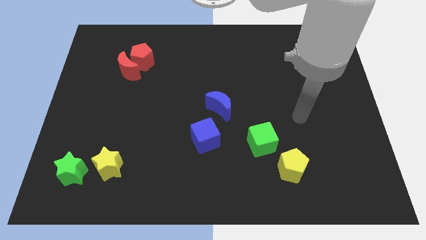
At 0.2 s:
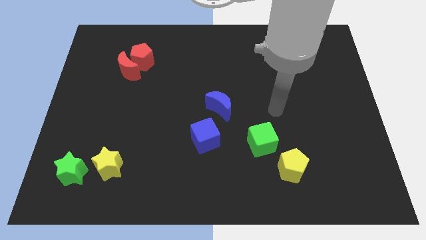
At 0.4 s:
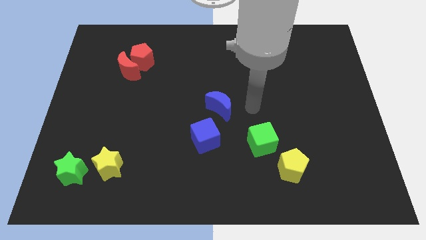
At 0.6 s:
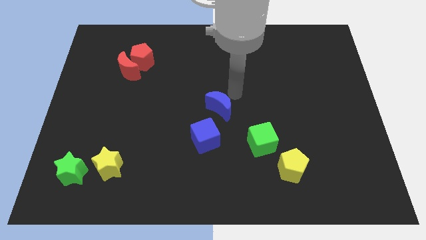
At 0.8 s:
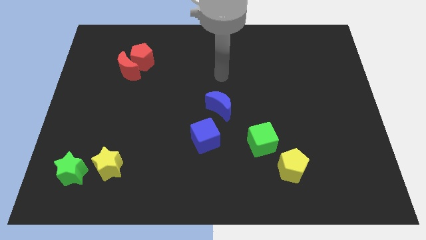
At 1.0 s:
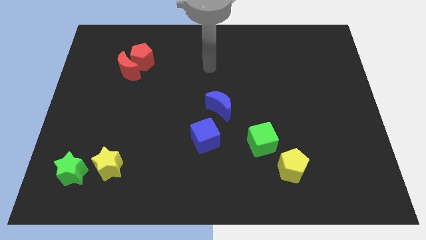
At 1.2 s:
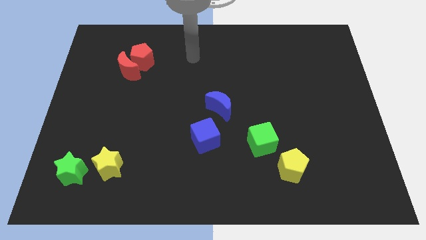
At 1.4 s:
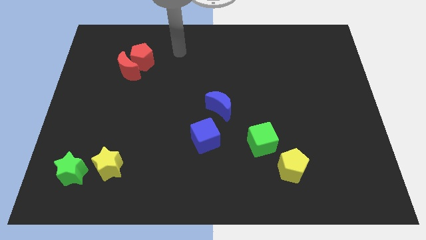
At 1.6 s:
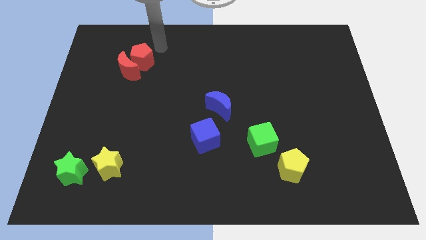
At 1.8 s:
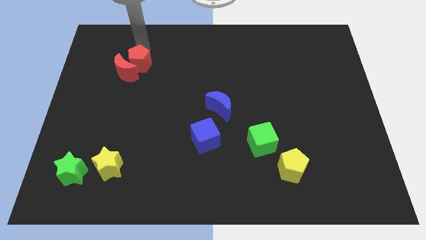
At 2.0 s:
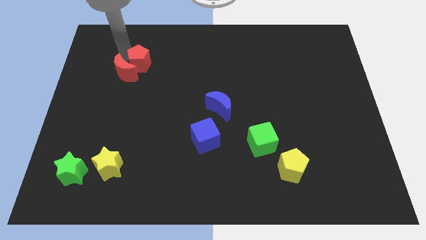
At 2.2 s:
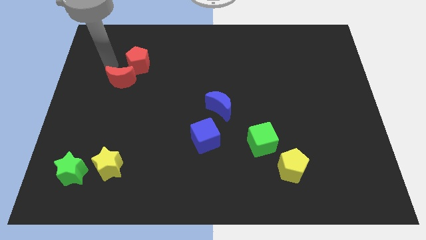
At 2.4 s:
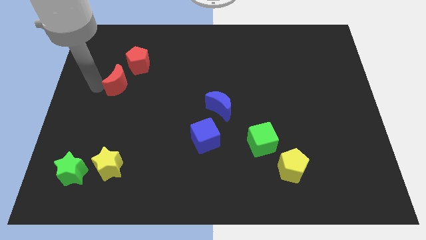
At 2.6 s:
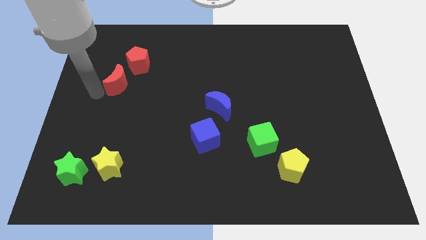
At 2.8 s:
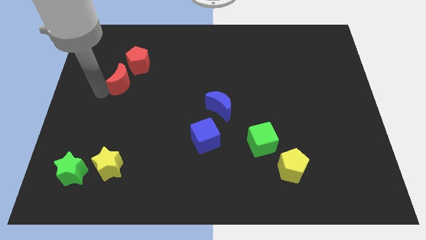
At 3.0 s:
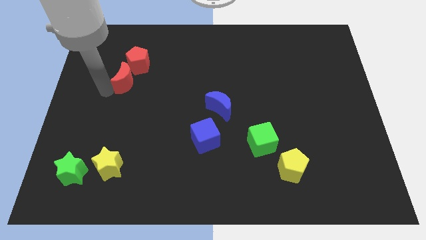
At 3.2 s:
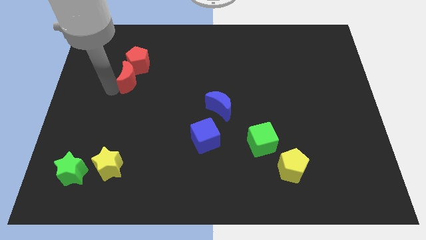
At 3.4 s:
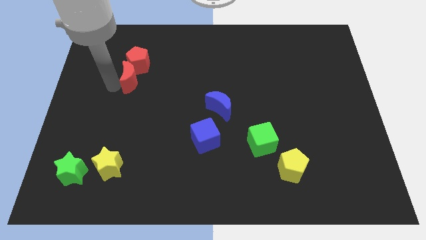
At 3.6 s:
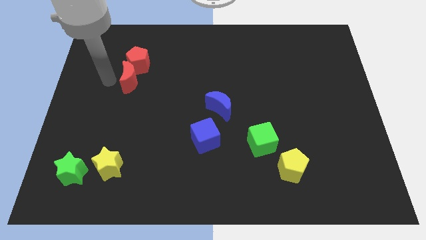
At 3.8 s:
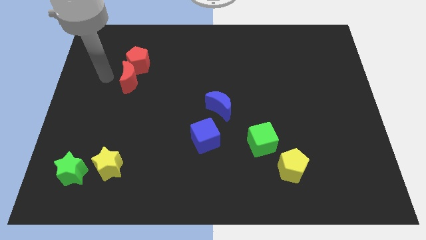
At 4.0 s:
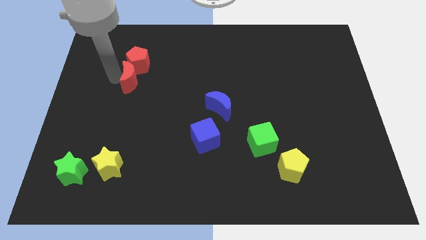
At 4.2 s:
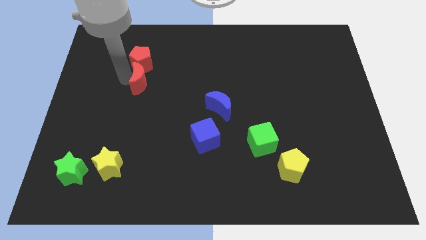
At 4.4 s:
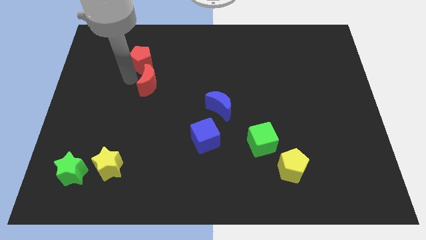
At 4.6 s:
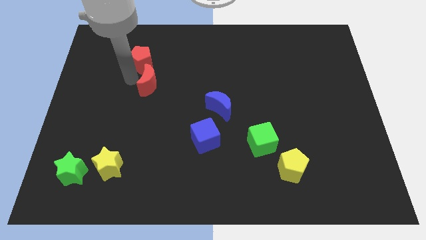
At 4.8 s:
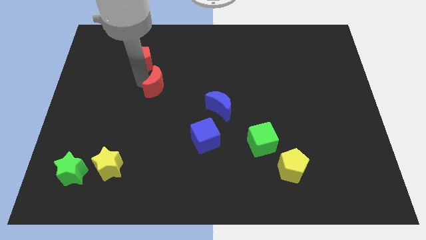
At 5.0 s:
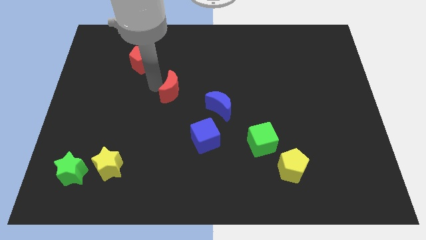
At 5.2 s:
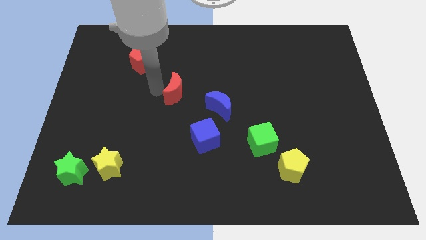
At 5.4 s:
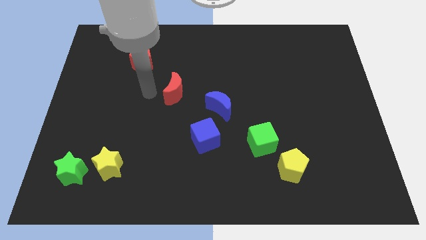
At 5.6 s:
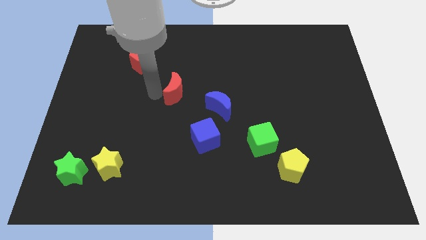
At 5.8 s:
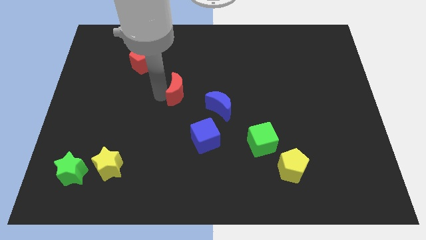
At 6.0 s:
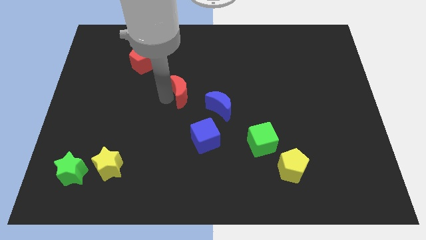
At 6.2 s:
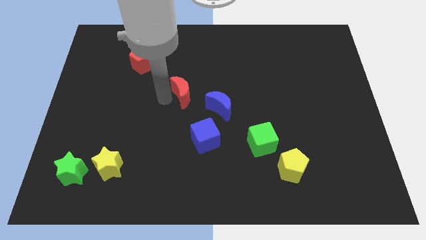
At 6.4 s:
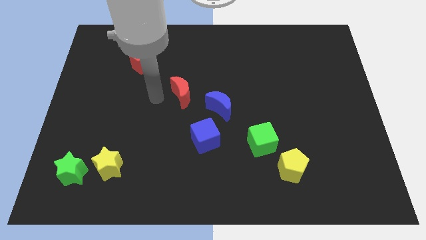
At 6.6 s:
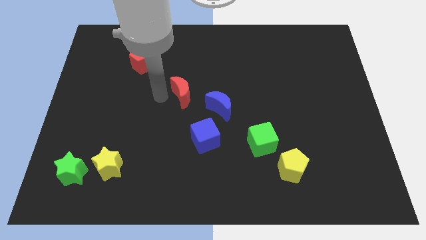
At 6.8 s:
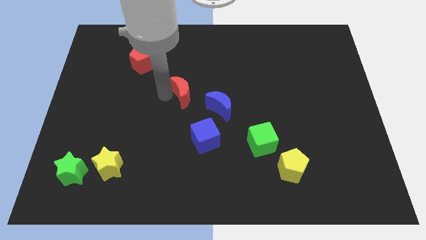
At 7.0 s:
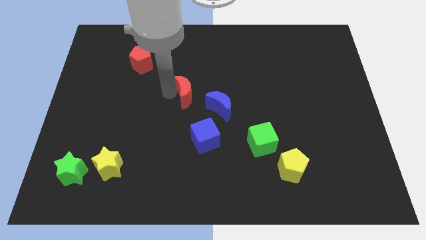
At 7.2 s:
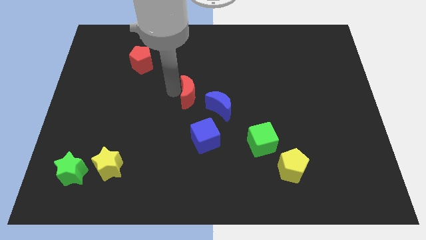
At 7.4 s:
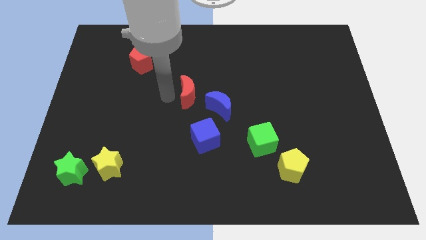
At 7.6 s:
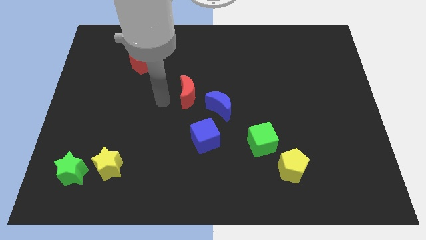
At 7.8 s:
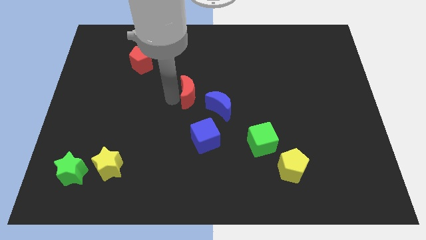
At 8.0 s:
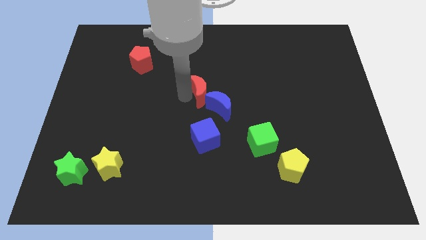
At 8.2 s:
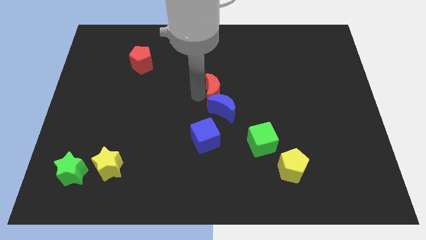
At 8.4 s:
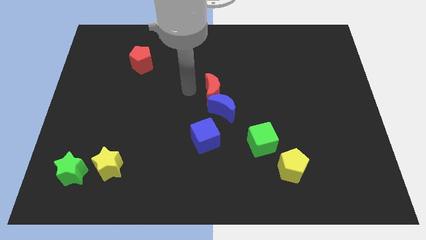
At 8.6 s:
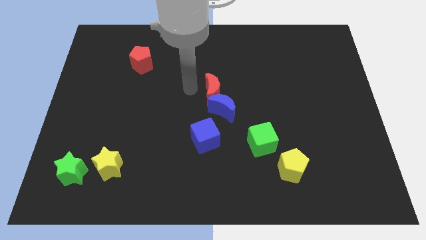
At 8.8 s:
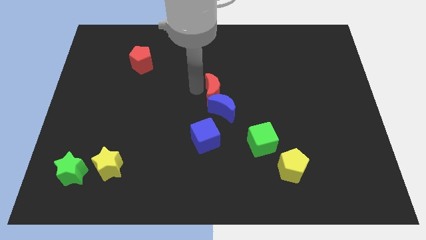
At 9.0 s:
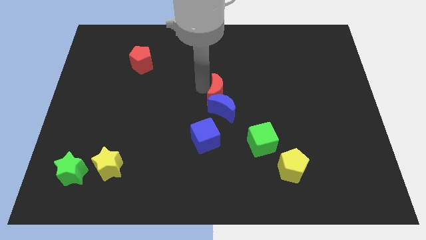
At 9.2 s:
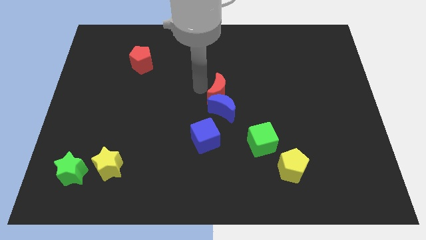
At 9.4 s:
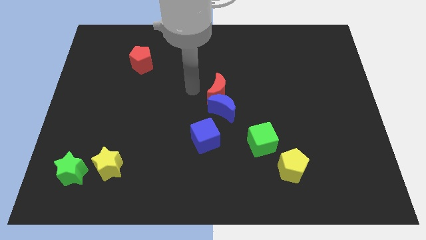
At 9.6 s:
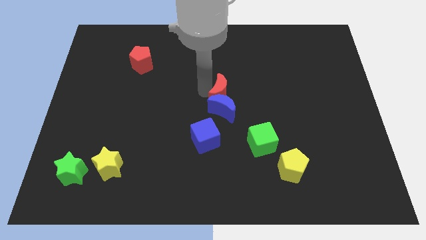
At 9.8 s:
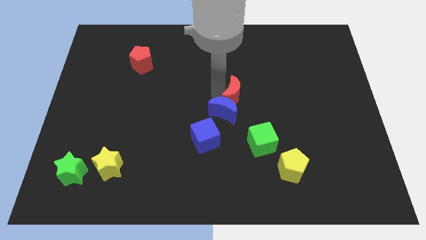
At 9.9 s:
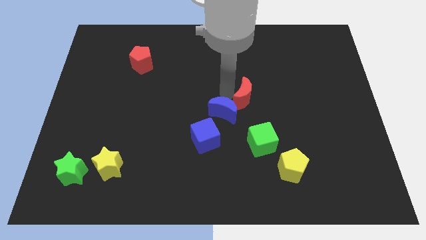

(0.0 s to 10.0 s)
slide the red moon right of the blue moon

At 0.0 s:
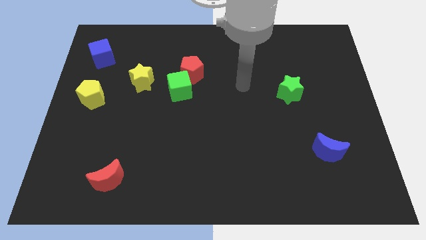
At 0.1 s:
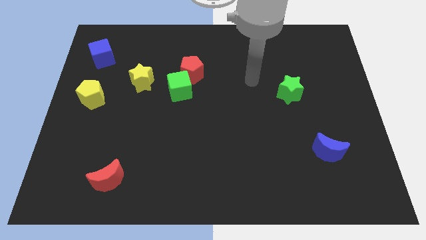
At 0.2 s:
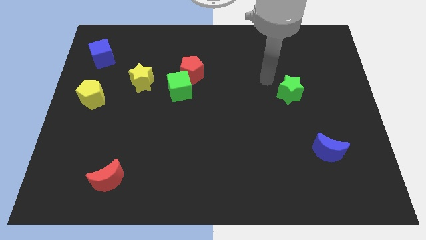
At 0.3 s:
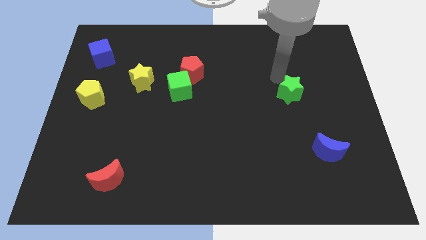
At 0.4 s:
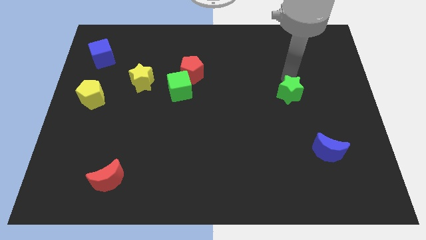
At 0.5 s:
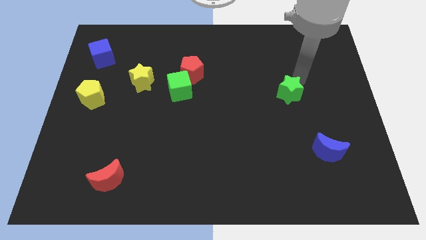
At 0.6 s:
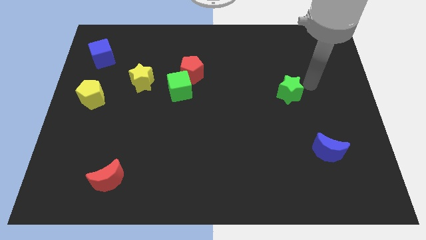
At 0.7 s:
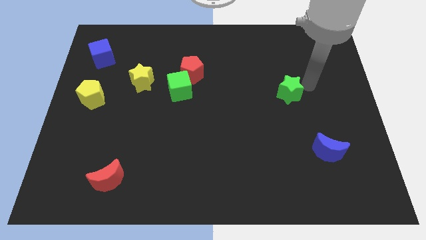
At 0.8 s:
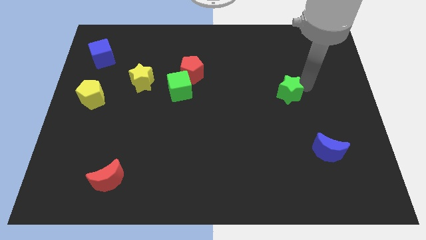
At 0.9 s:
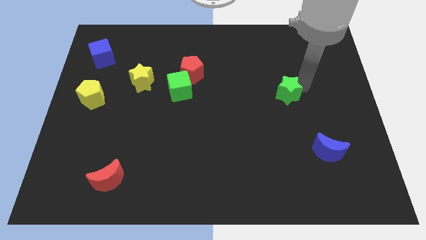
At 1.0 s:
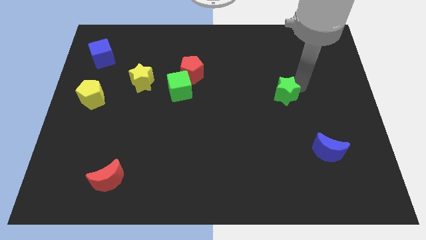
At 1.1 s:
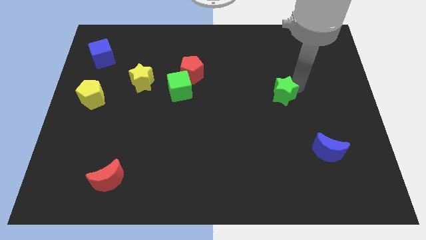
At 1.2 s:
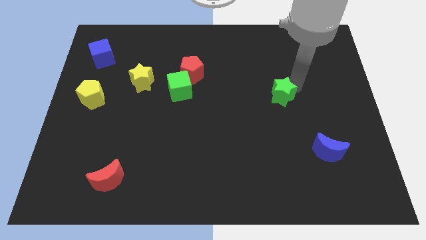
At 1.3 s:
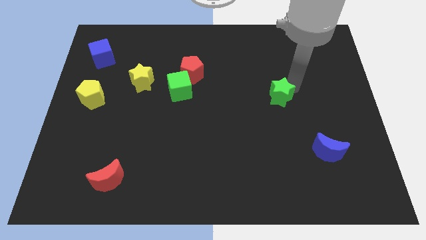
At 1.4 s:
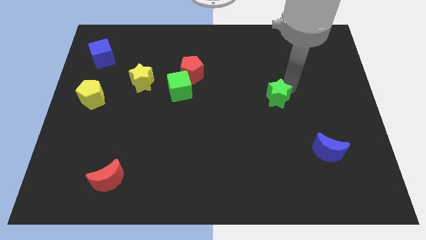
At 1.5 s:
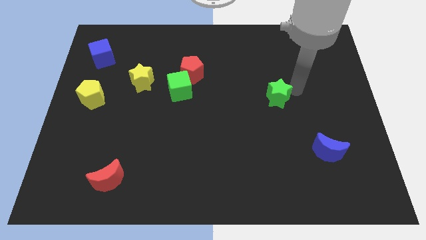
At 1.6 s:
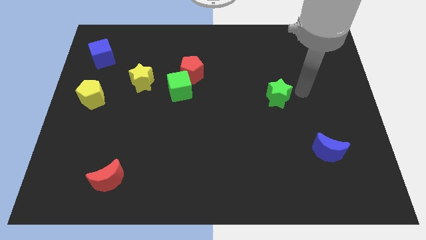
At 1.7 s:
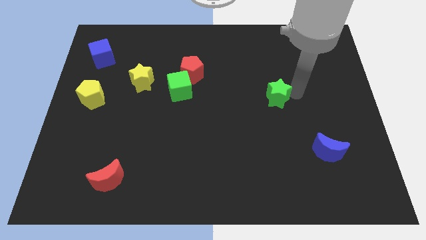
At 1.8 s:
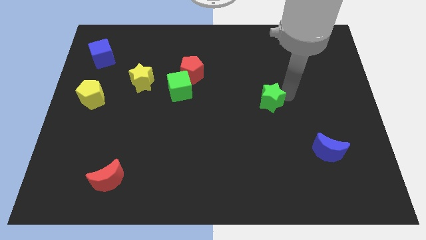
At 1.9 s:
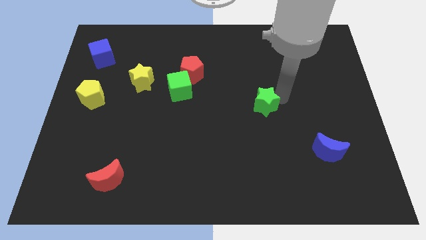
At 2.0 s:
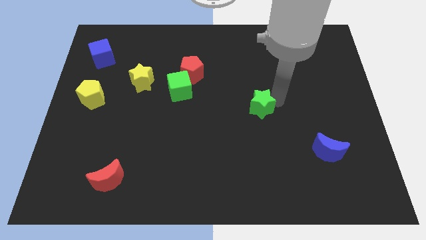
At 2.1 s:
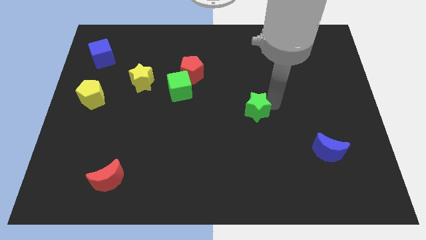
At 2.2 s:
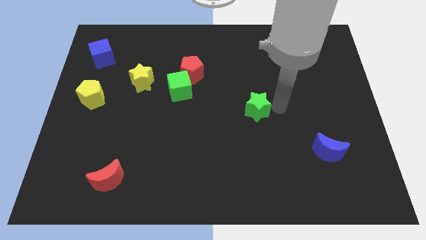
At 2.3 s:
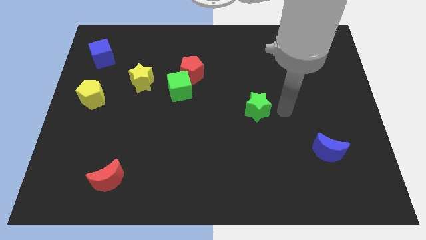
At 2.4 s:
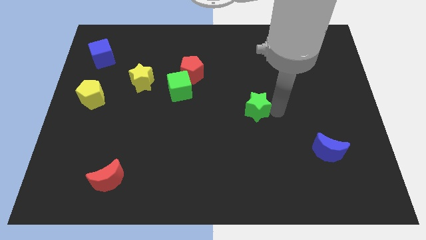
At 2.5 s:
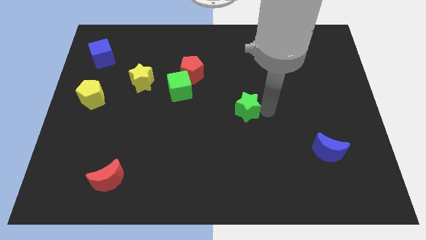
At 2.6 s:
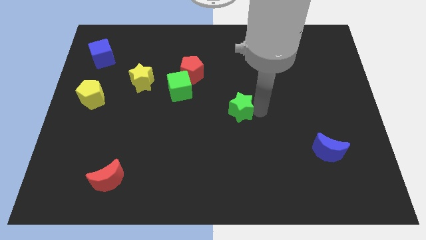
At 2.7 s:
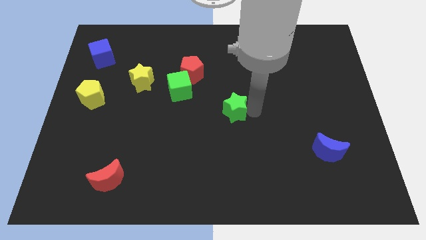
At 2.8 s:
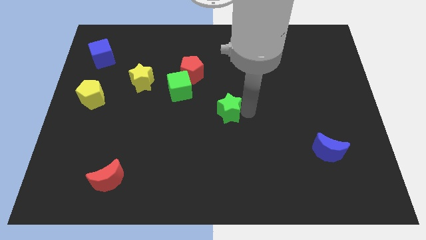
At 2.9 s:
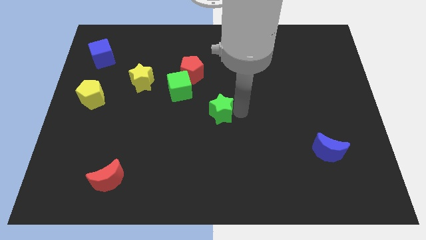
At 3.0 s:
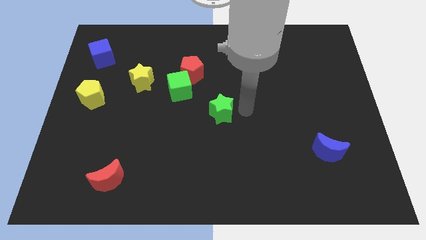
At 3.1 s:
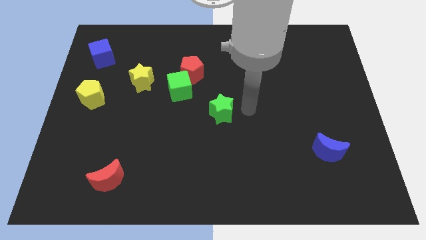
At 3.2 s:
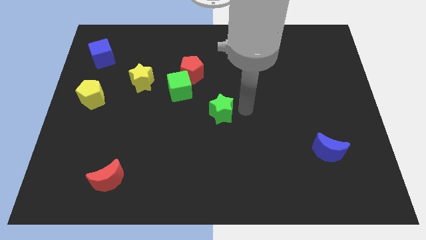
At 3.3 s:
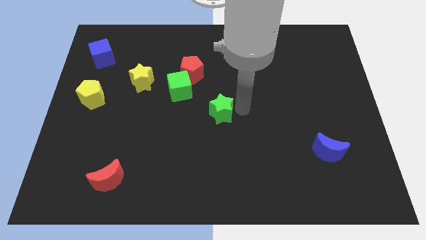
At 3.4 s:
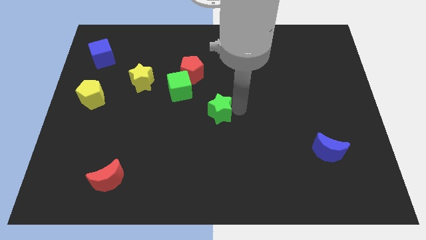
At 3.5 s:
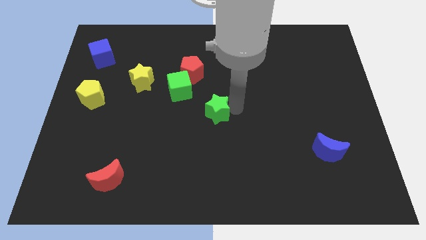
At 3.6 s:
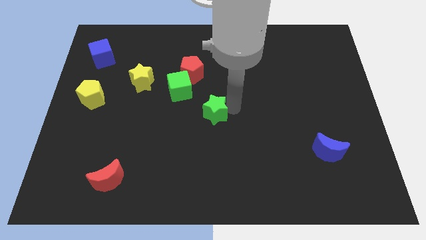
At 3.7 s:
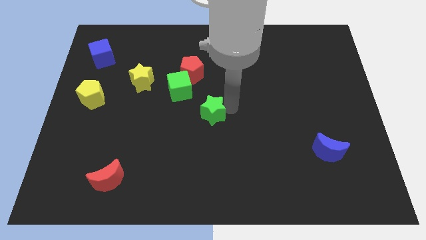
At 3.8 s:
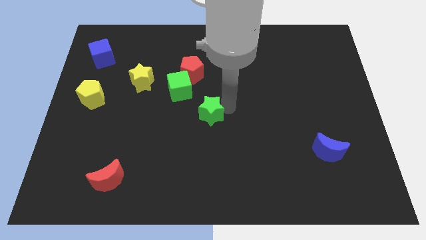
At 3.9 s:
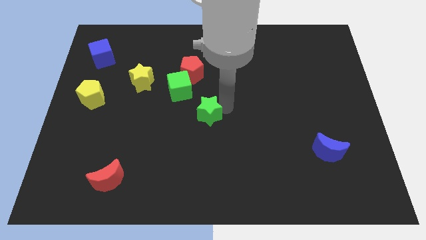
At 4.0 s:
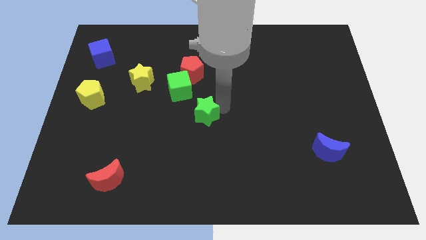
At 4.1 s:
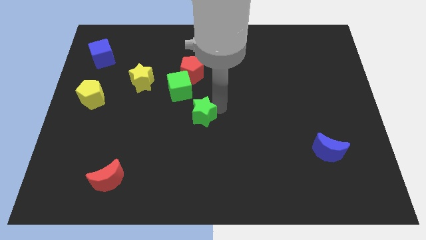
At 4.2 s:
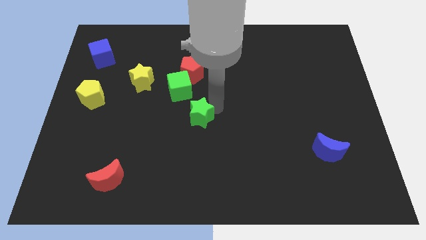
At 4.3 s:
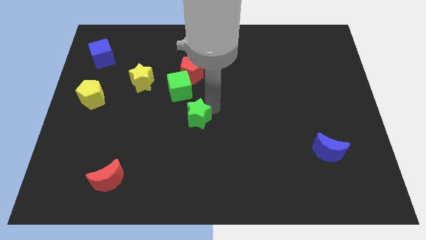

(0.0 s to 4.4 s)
push the green star below the green cube
